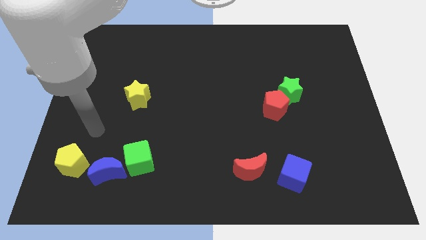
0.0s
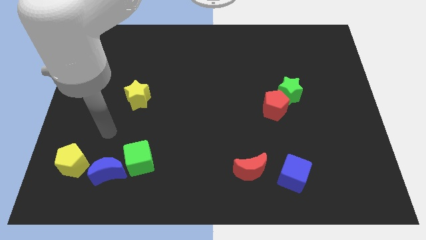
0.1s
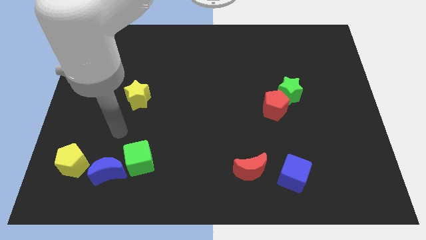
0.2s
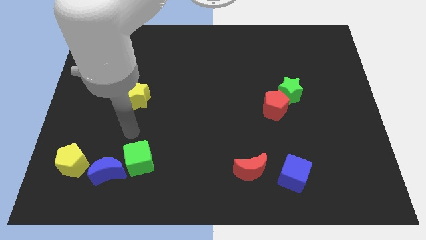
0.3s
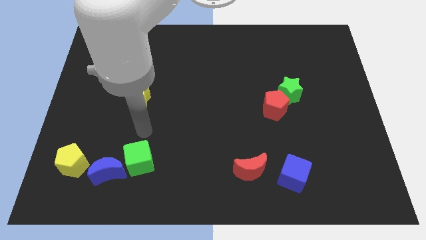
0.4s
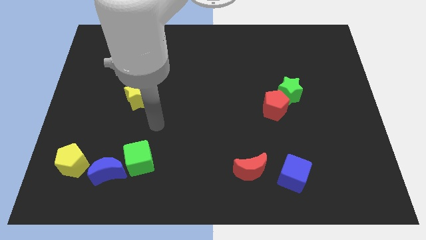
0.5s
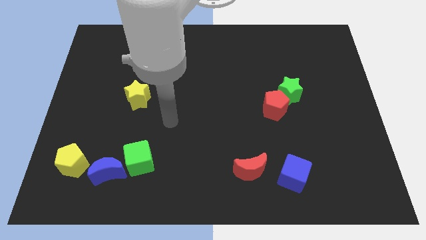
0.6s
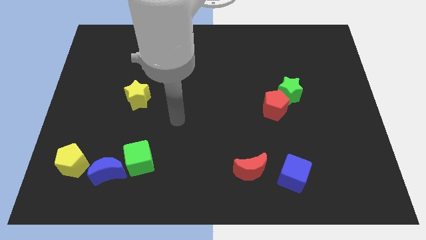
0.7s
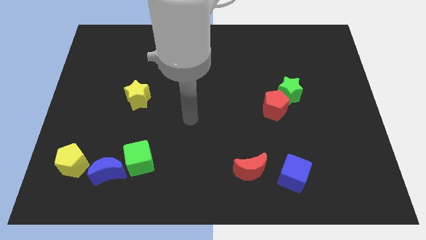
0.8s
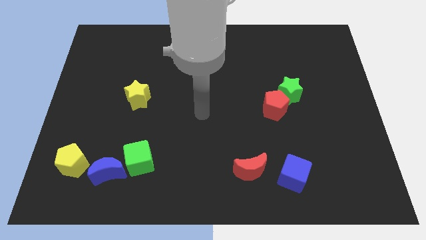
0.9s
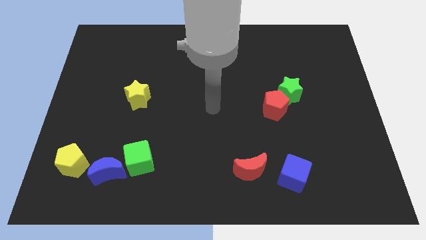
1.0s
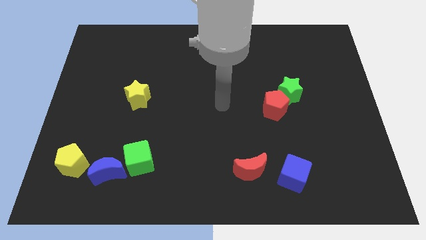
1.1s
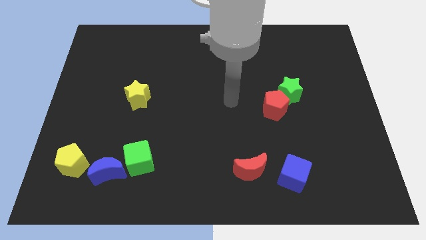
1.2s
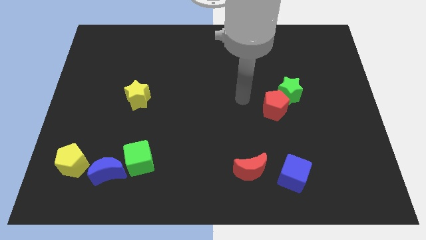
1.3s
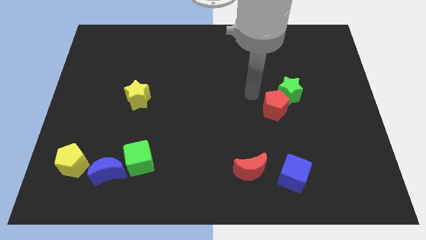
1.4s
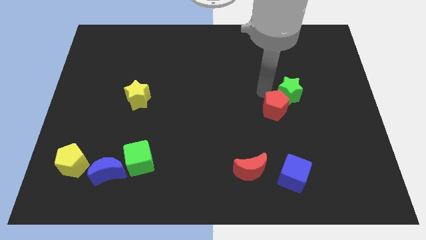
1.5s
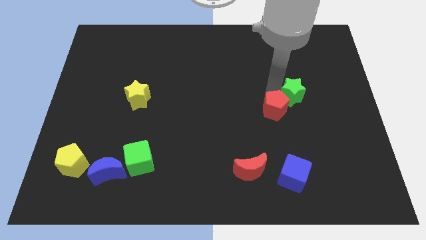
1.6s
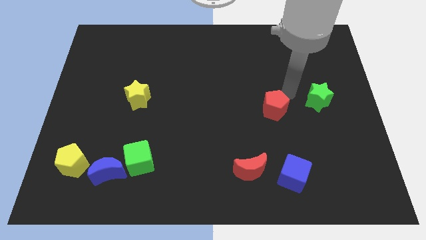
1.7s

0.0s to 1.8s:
pull the red pentagon apart from the green star

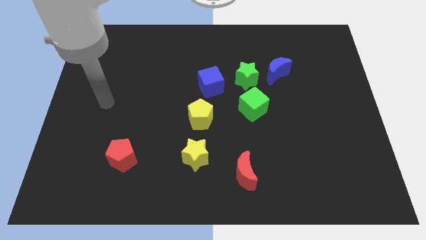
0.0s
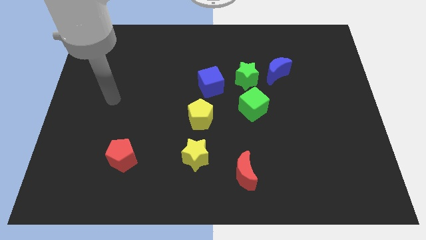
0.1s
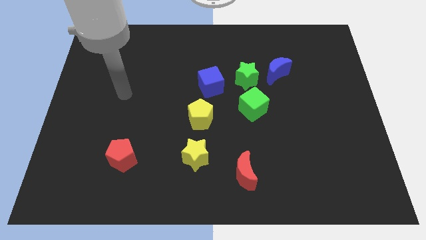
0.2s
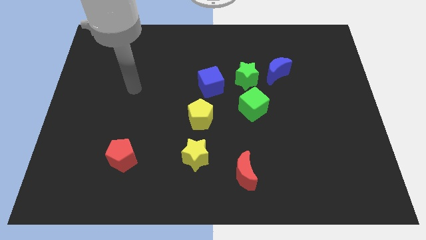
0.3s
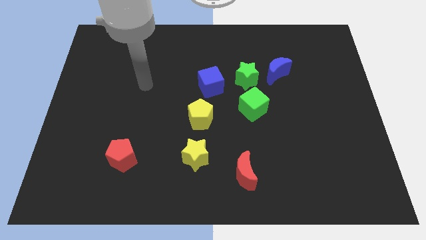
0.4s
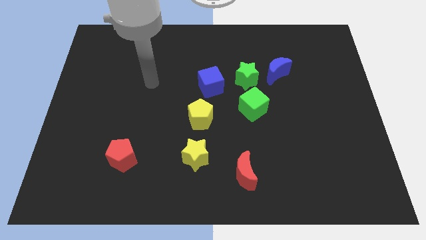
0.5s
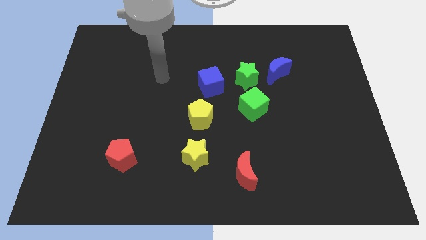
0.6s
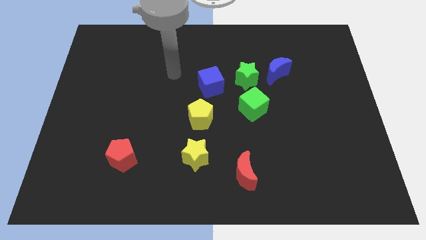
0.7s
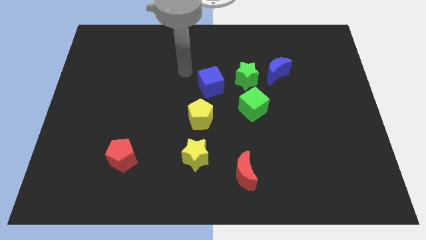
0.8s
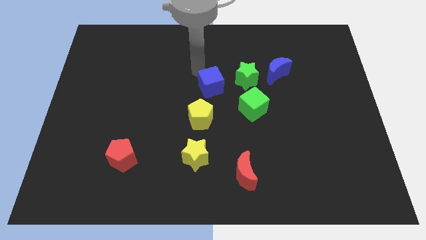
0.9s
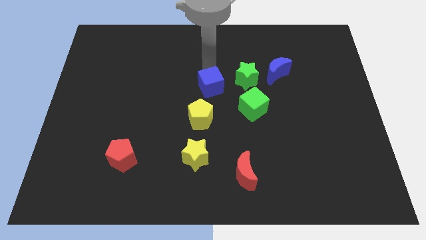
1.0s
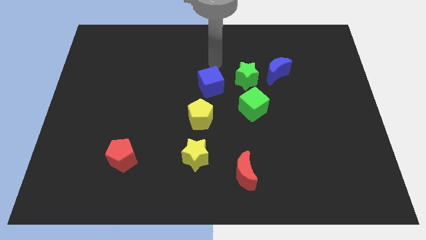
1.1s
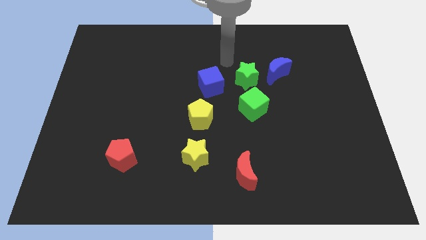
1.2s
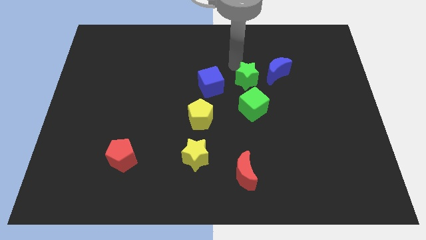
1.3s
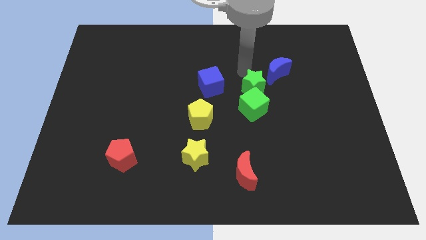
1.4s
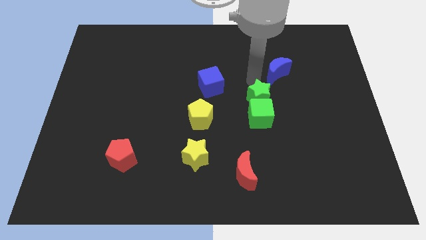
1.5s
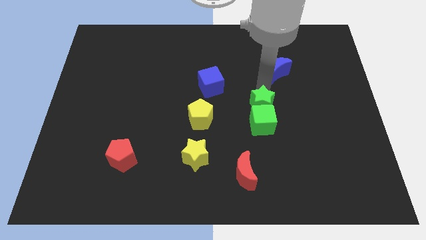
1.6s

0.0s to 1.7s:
move the blue moon away from the green star

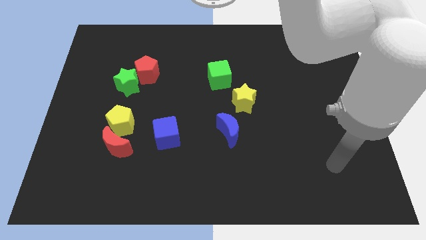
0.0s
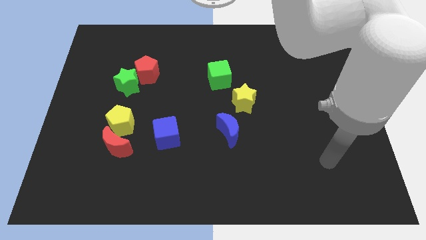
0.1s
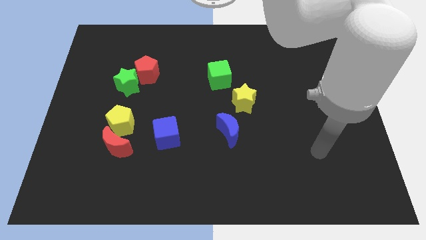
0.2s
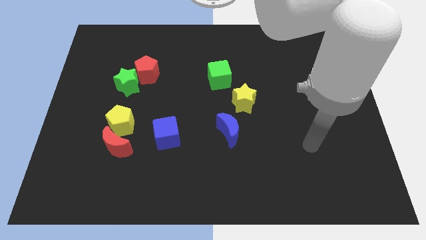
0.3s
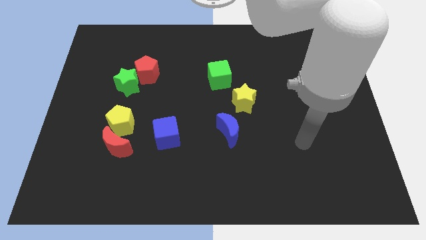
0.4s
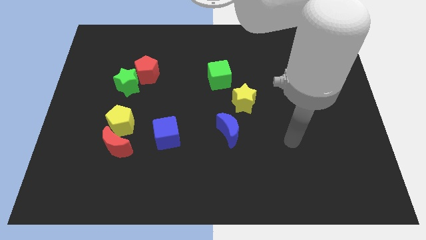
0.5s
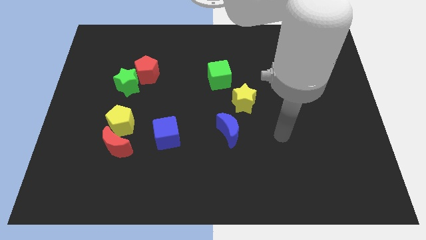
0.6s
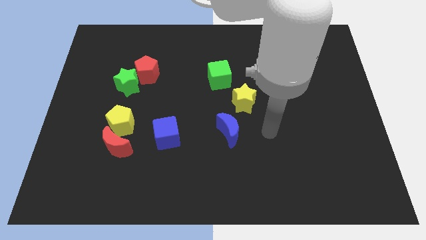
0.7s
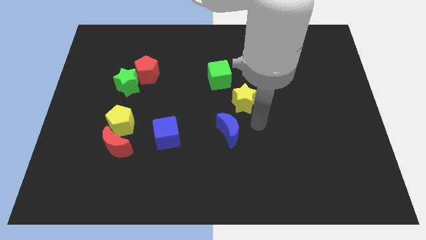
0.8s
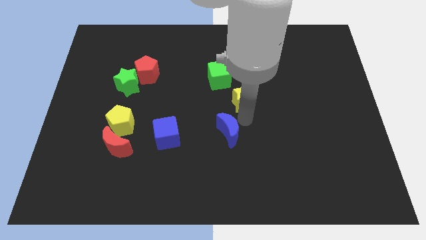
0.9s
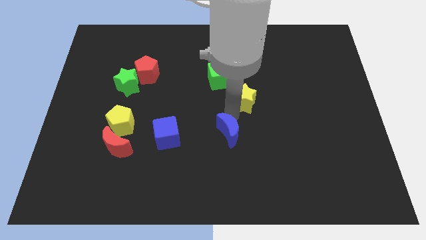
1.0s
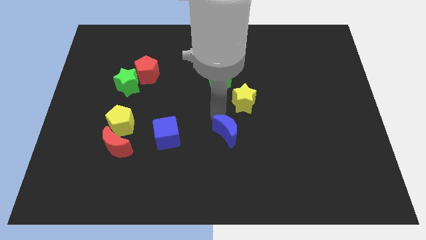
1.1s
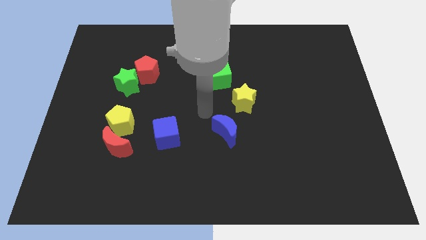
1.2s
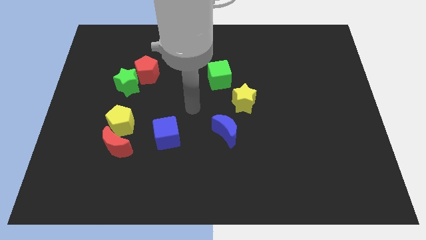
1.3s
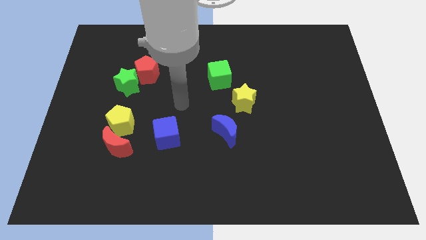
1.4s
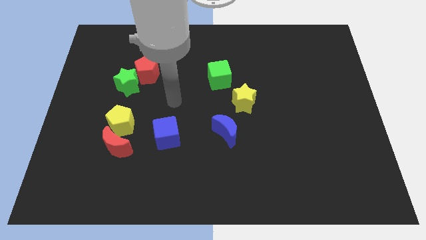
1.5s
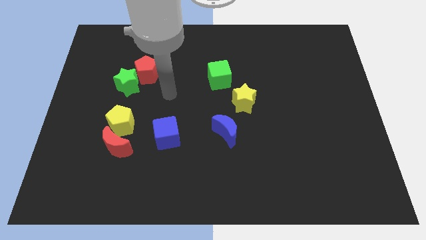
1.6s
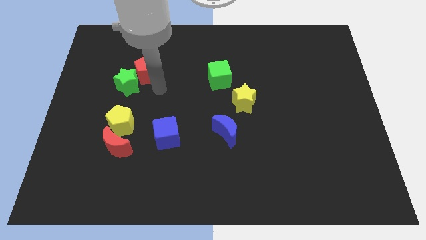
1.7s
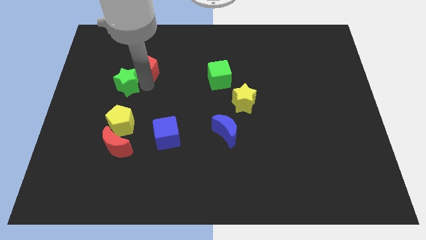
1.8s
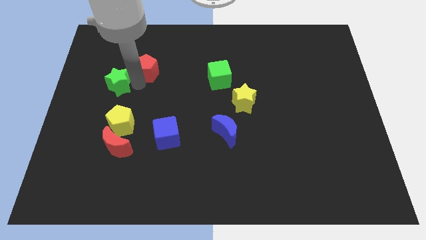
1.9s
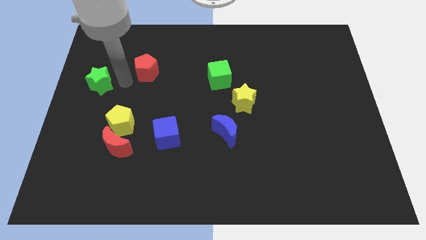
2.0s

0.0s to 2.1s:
separate the red pentagon from the green star

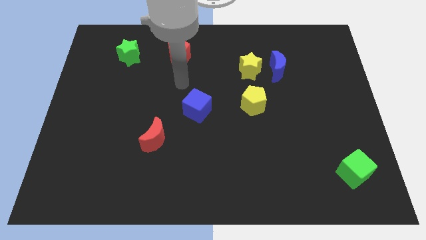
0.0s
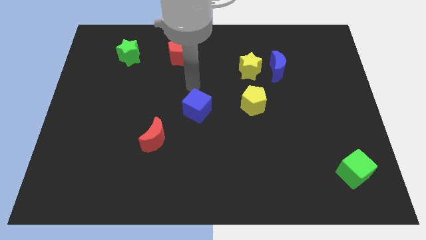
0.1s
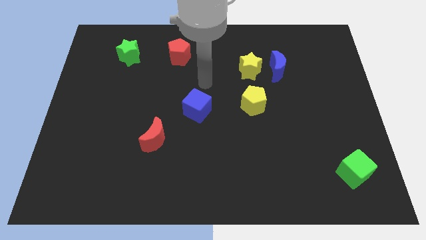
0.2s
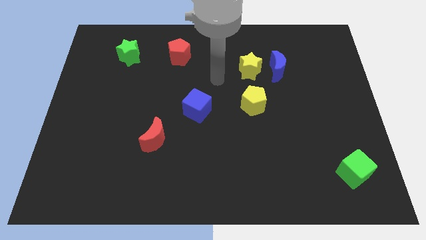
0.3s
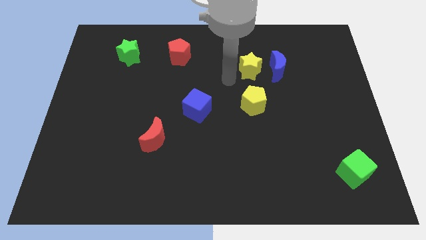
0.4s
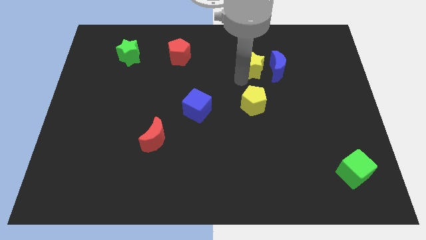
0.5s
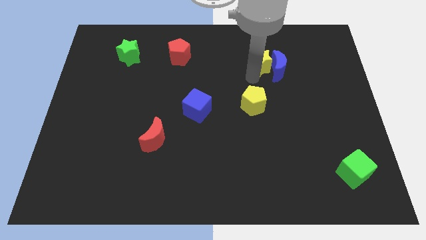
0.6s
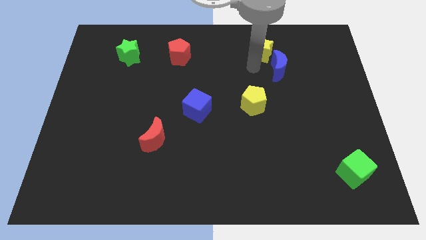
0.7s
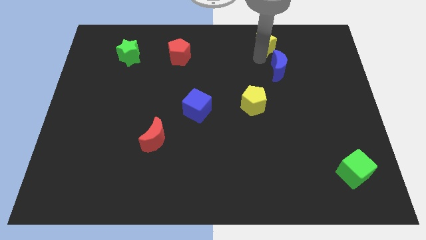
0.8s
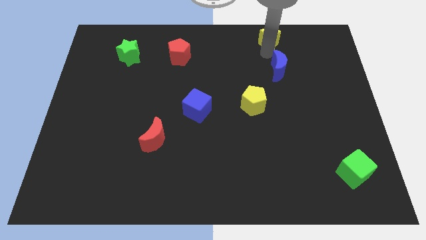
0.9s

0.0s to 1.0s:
pull the blue moon apart from the yellow star

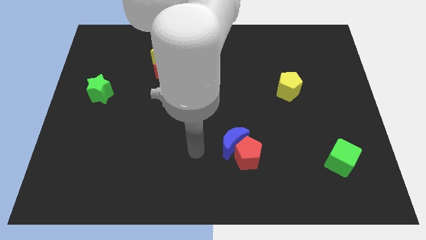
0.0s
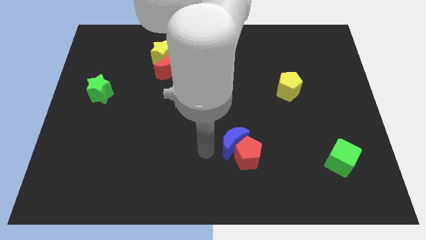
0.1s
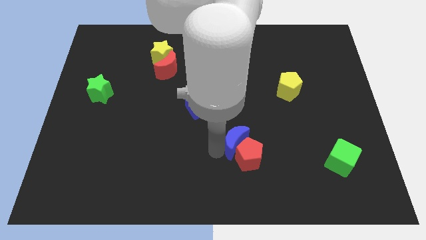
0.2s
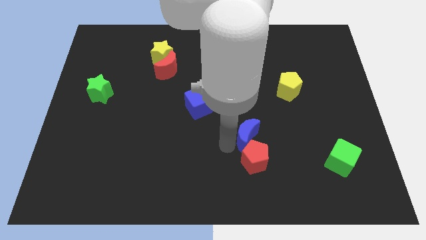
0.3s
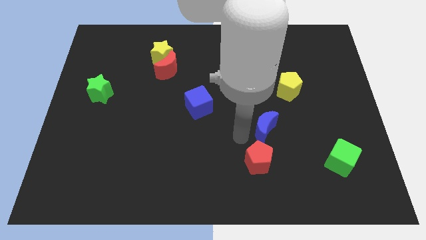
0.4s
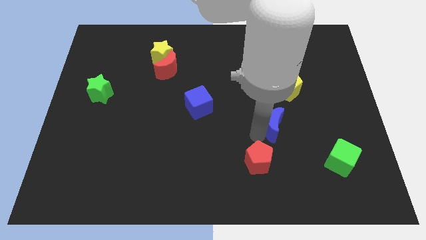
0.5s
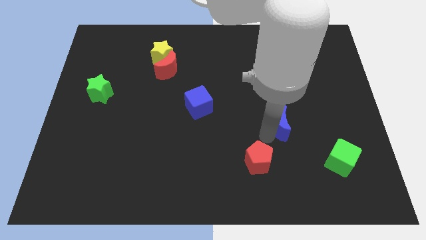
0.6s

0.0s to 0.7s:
pull the red pentagon apart from the blue moon

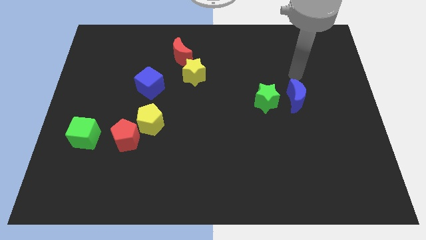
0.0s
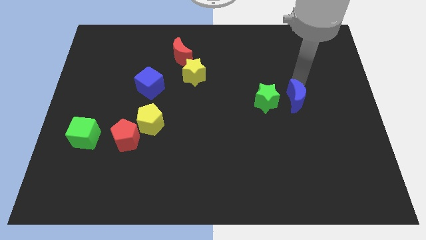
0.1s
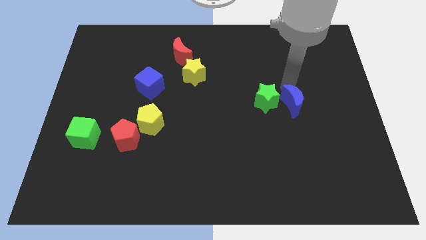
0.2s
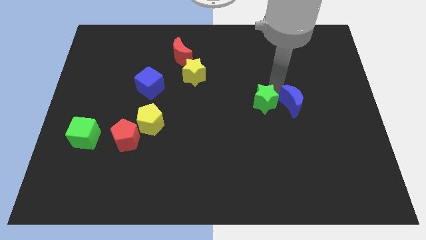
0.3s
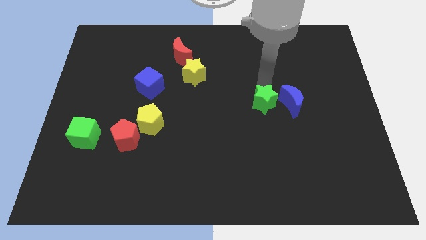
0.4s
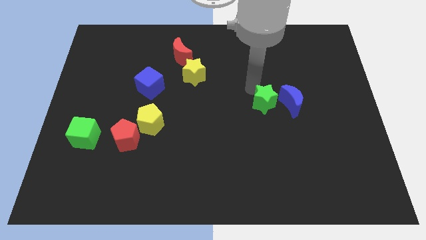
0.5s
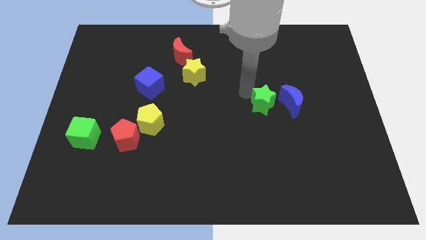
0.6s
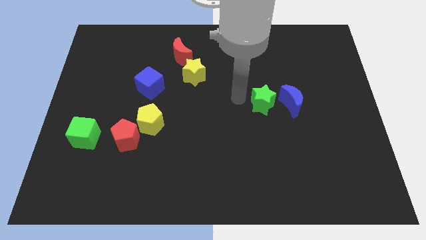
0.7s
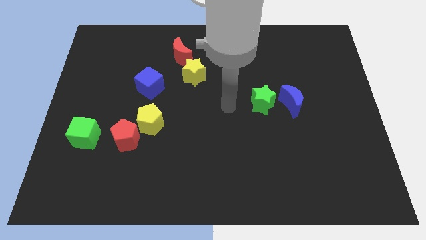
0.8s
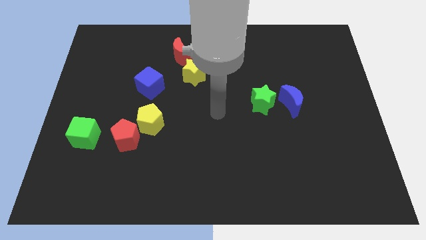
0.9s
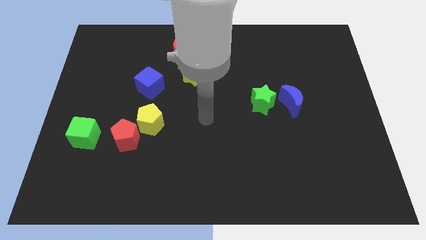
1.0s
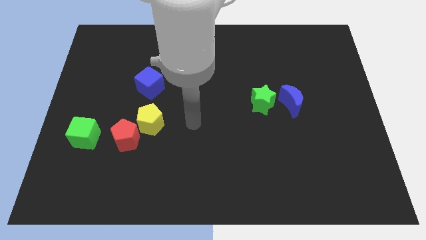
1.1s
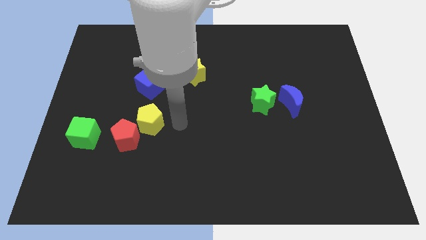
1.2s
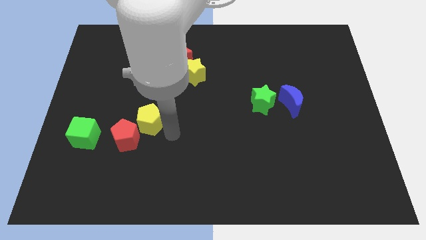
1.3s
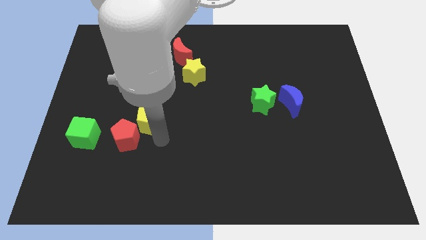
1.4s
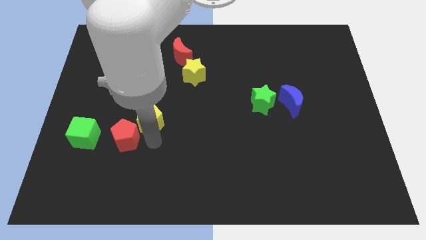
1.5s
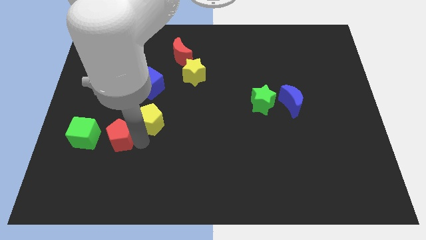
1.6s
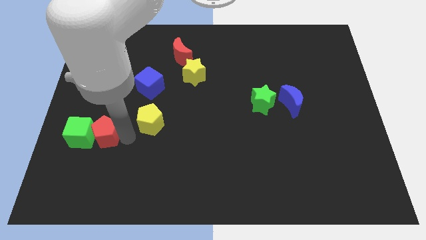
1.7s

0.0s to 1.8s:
pull the yellow pentagon apart from the red pentagon

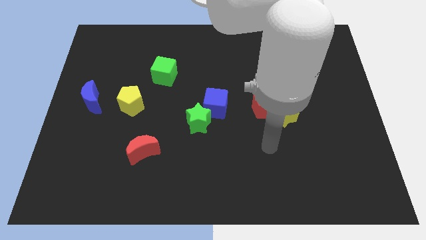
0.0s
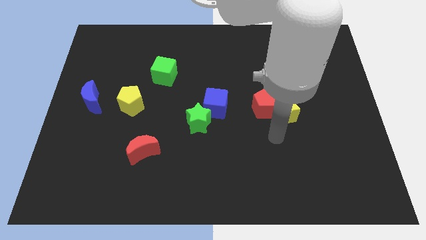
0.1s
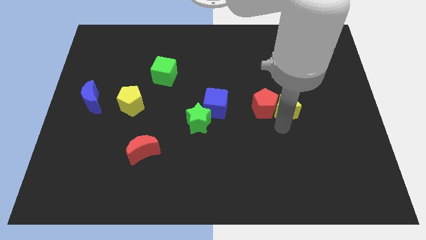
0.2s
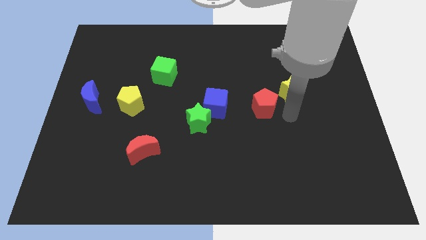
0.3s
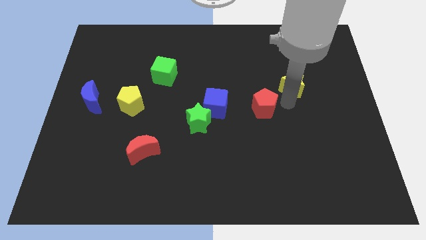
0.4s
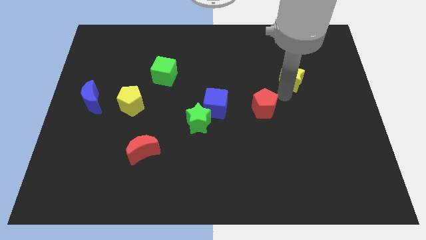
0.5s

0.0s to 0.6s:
pull the red pentagon apart from the yellow star
